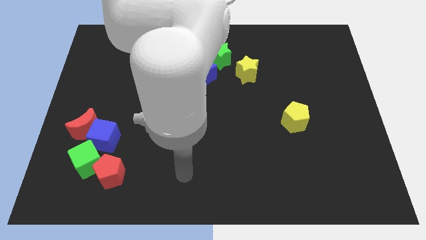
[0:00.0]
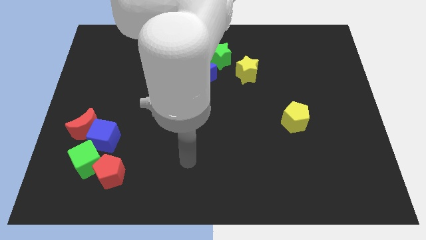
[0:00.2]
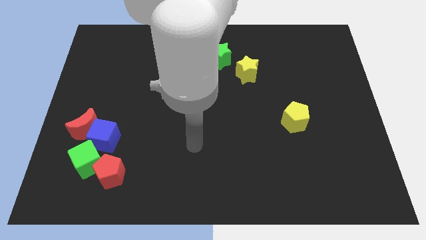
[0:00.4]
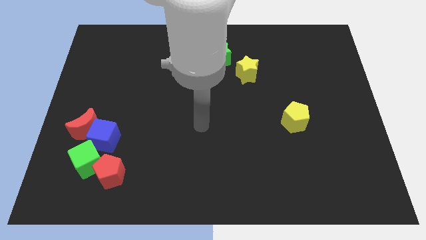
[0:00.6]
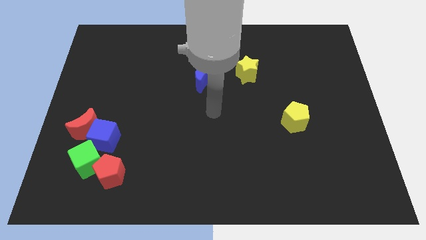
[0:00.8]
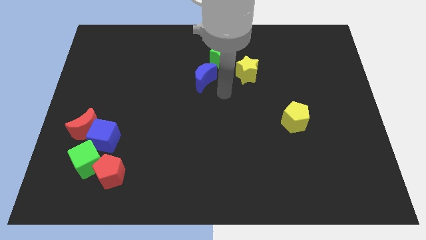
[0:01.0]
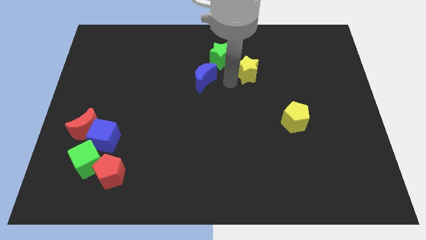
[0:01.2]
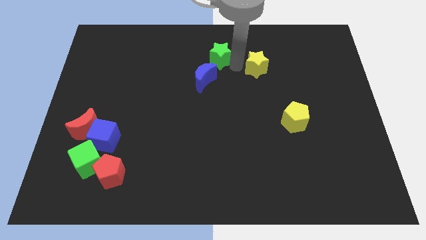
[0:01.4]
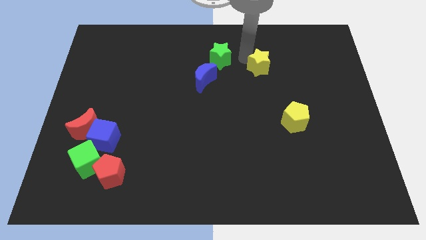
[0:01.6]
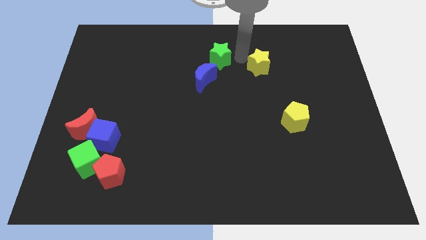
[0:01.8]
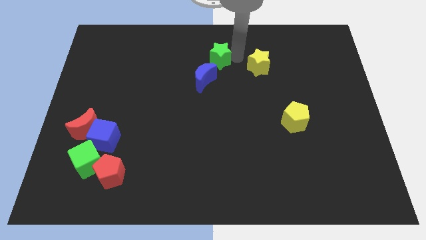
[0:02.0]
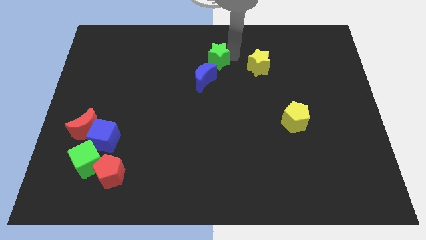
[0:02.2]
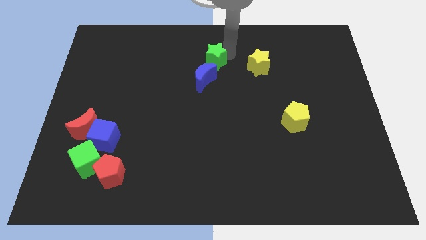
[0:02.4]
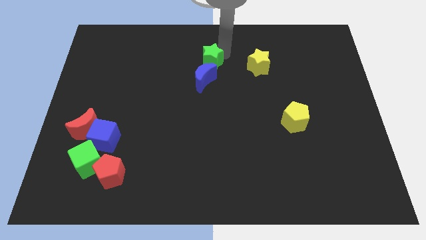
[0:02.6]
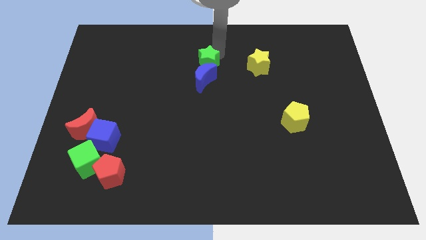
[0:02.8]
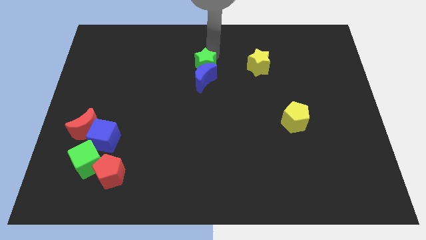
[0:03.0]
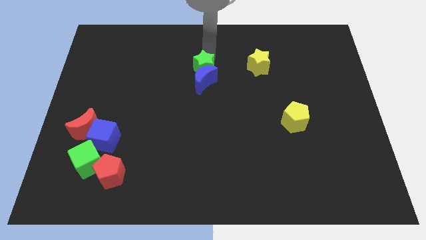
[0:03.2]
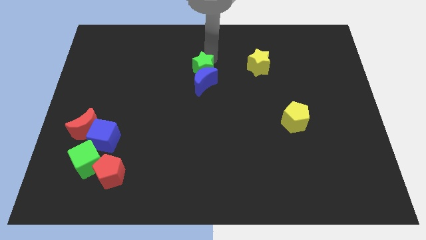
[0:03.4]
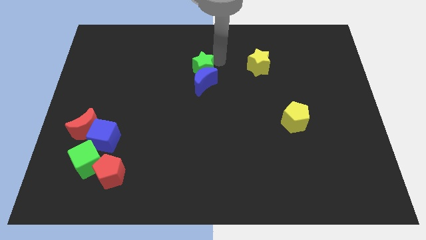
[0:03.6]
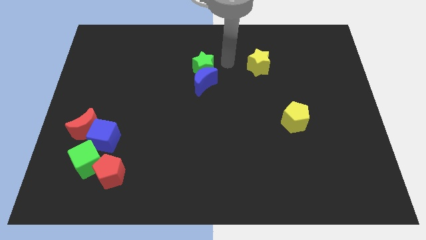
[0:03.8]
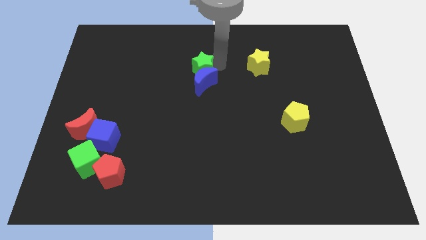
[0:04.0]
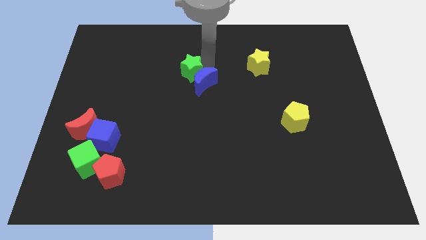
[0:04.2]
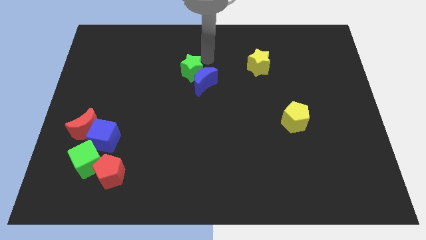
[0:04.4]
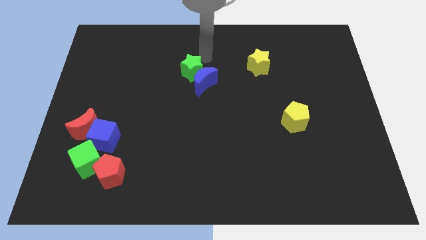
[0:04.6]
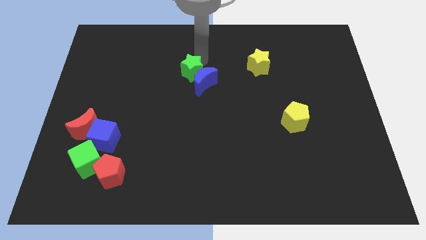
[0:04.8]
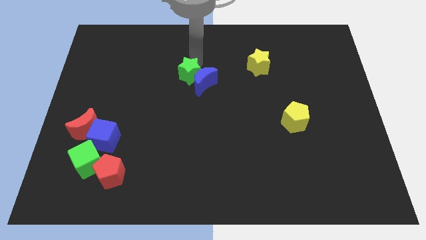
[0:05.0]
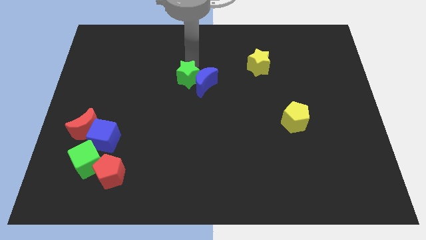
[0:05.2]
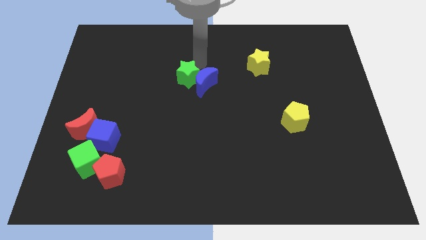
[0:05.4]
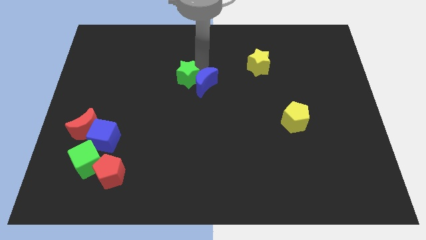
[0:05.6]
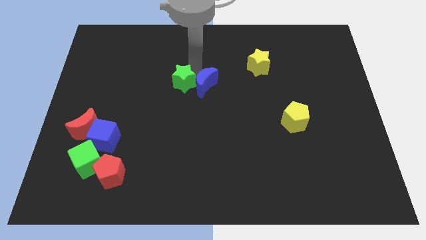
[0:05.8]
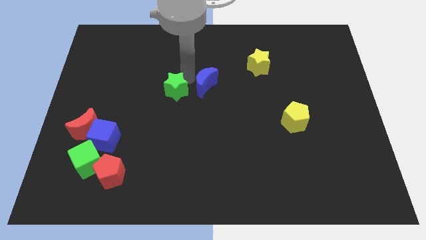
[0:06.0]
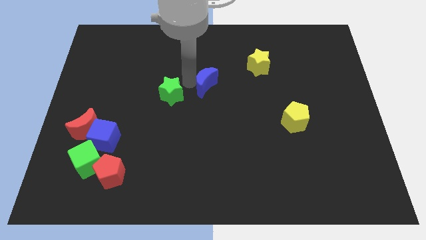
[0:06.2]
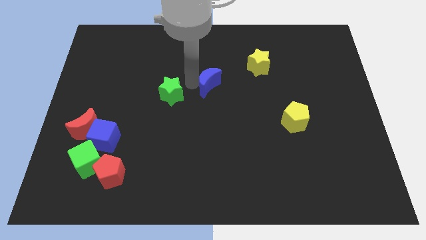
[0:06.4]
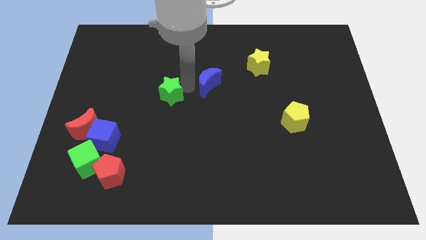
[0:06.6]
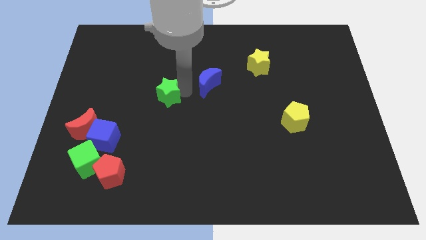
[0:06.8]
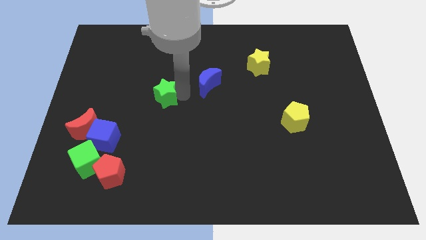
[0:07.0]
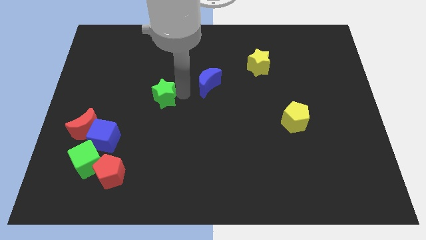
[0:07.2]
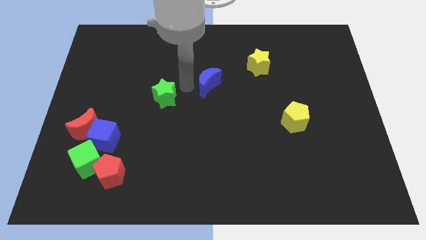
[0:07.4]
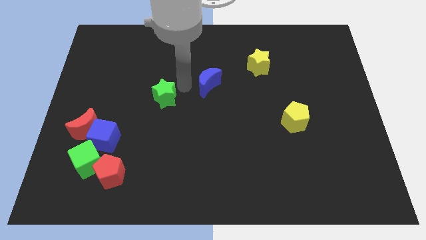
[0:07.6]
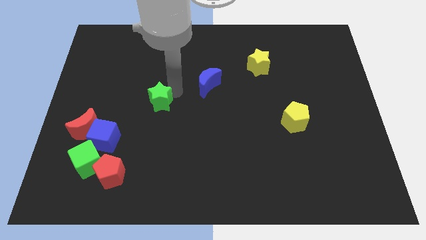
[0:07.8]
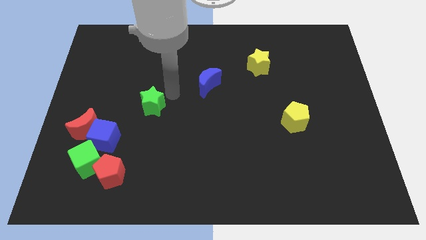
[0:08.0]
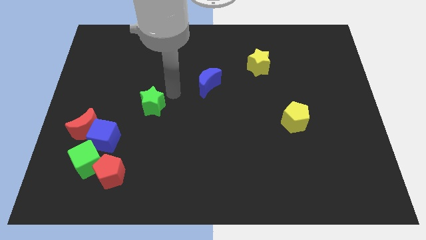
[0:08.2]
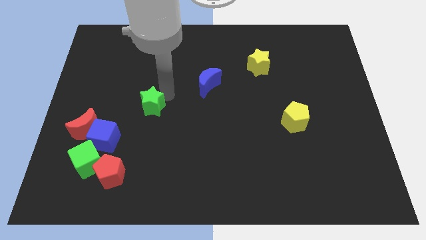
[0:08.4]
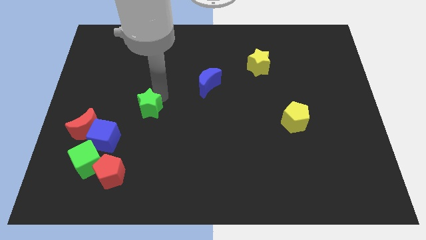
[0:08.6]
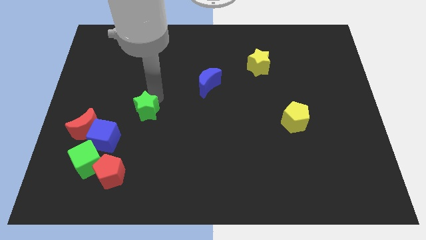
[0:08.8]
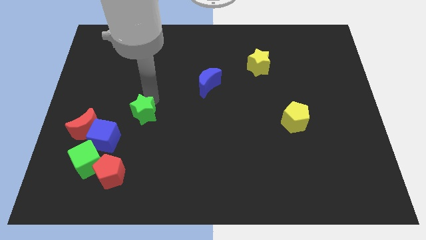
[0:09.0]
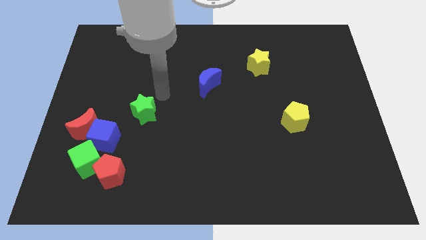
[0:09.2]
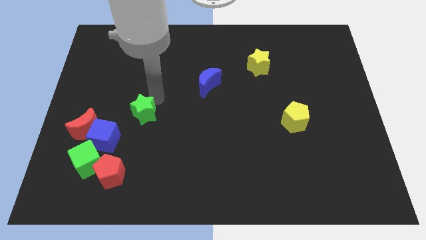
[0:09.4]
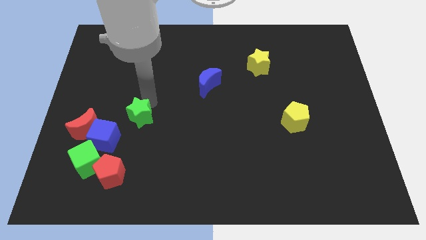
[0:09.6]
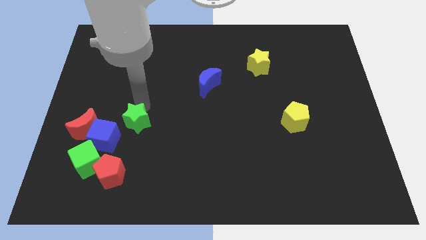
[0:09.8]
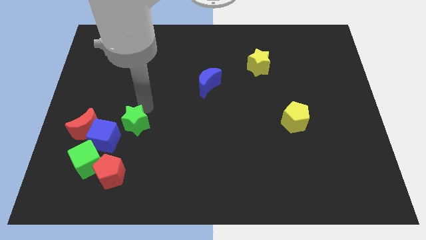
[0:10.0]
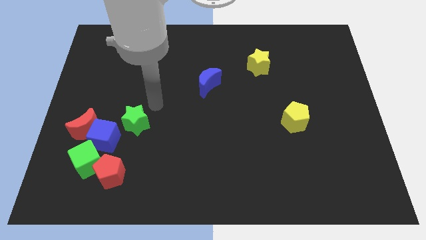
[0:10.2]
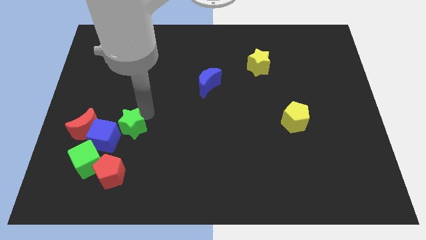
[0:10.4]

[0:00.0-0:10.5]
push the green star to the top right side of the green cube
